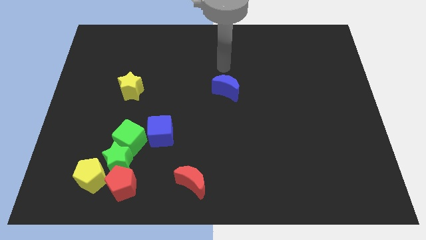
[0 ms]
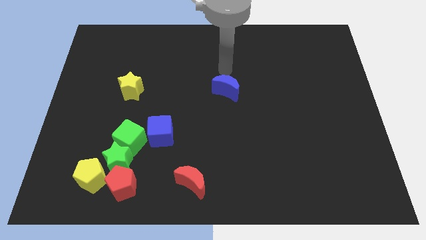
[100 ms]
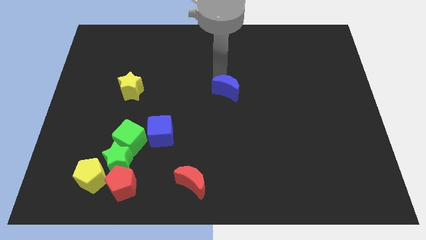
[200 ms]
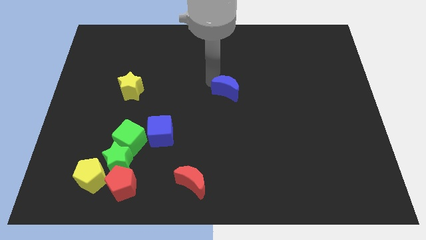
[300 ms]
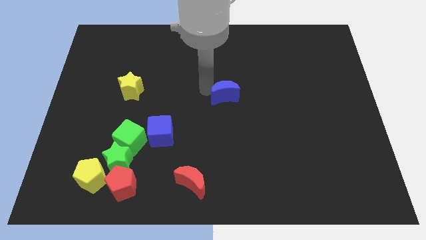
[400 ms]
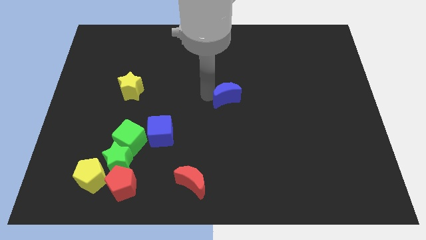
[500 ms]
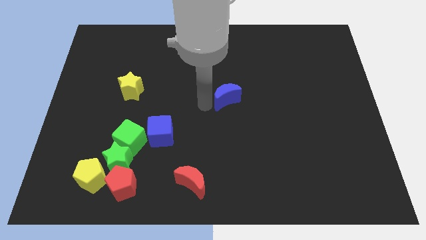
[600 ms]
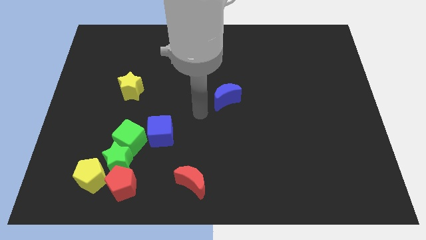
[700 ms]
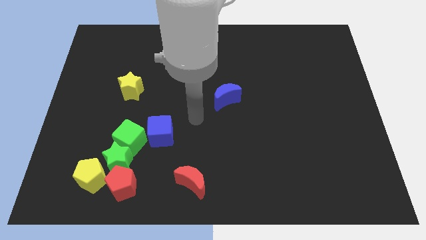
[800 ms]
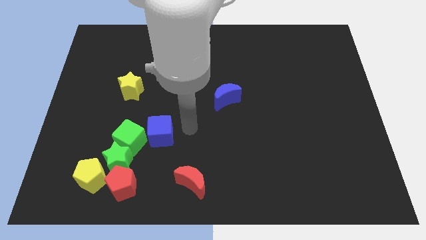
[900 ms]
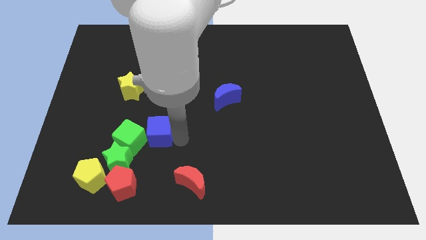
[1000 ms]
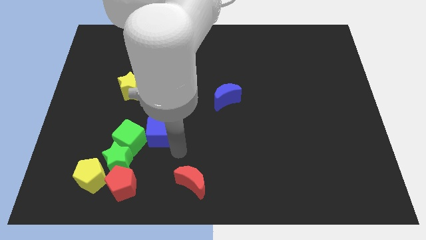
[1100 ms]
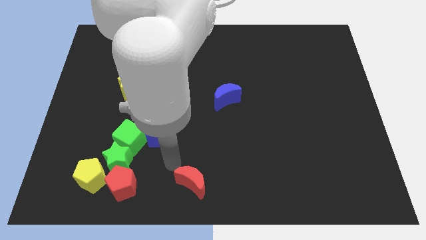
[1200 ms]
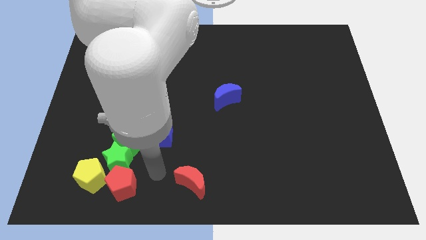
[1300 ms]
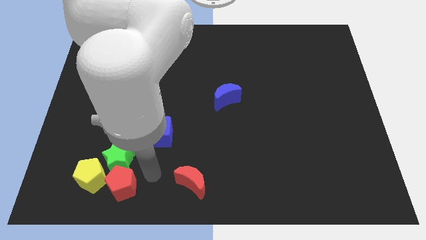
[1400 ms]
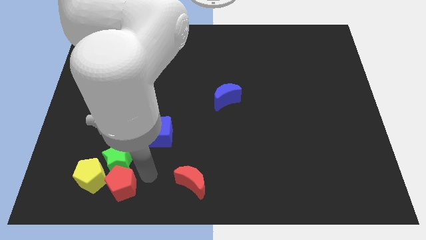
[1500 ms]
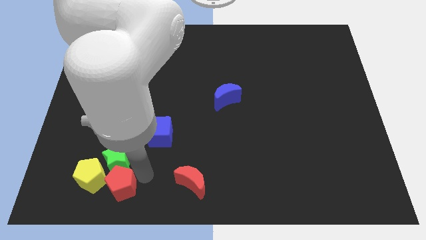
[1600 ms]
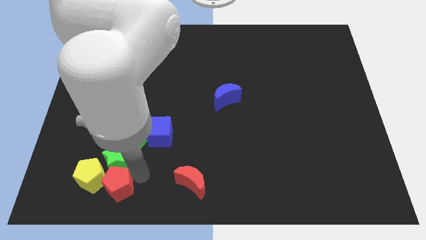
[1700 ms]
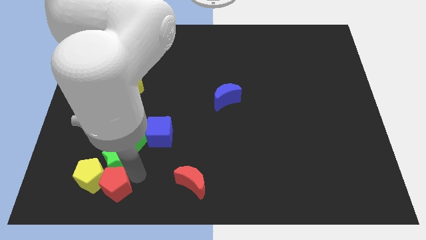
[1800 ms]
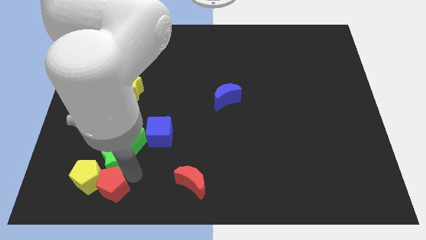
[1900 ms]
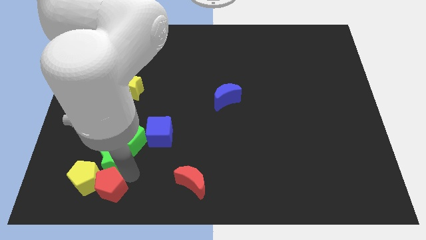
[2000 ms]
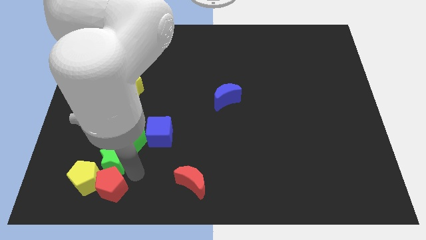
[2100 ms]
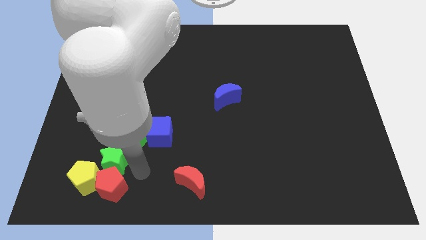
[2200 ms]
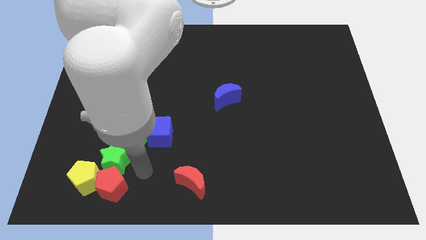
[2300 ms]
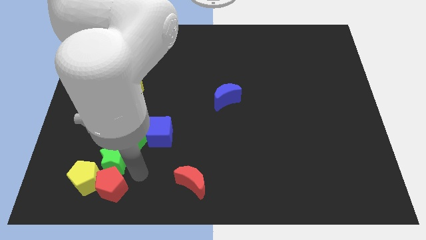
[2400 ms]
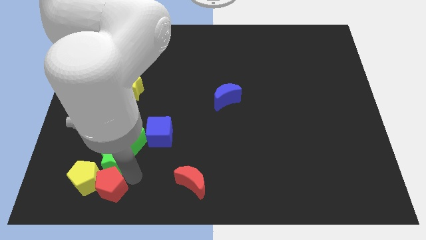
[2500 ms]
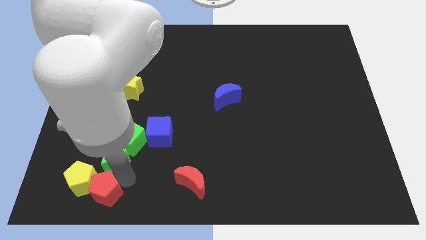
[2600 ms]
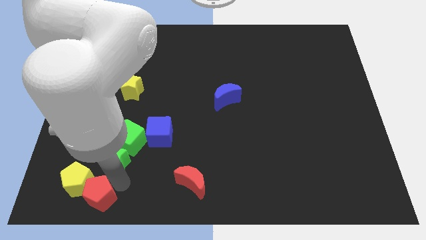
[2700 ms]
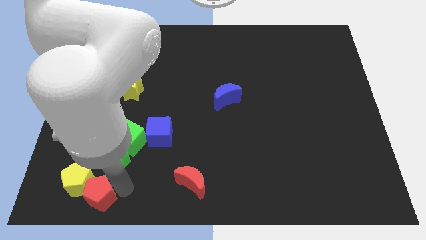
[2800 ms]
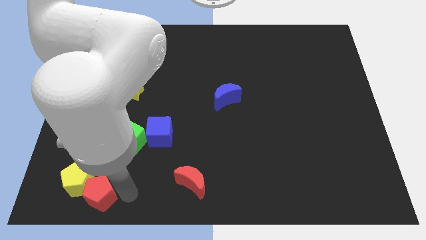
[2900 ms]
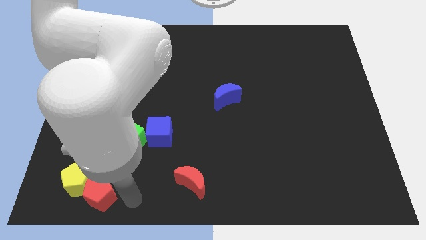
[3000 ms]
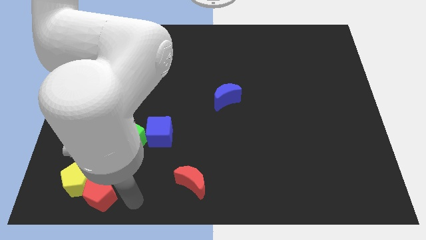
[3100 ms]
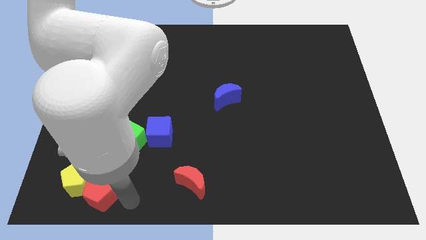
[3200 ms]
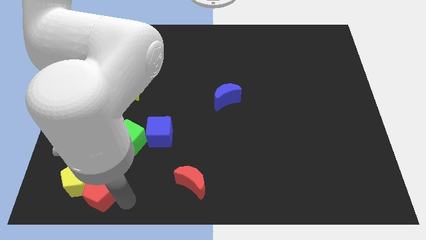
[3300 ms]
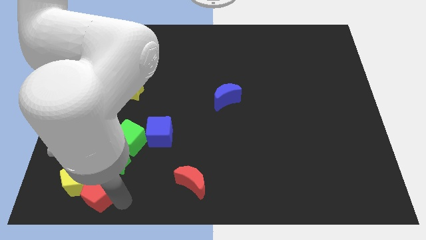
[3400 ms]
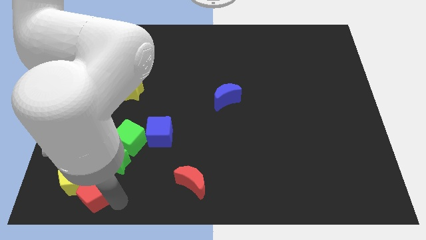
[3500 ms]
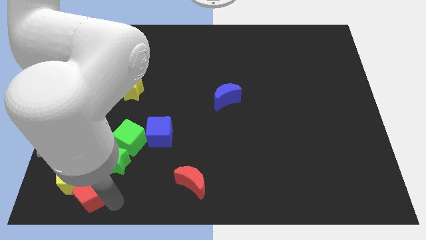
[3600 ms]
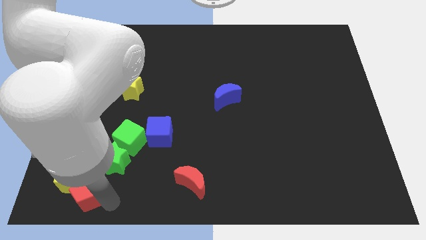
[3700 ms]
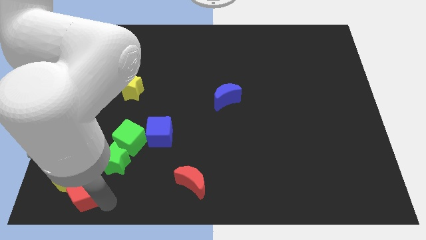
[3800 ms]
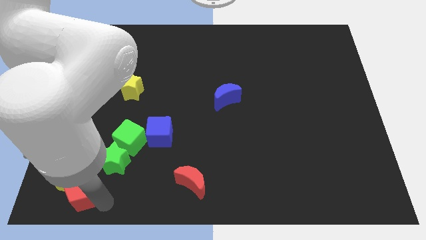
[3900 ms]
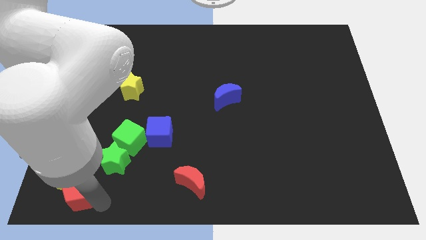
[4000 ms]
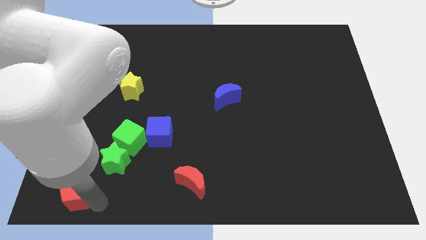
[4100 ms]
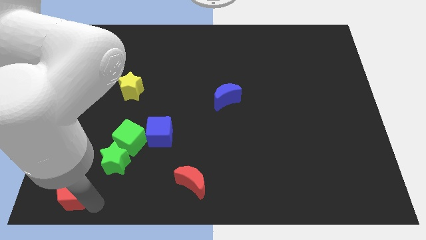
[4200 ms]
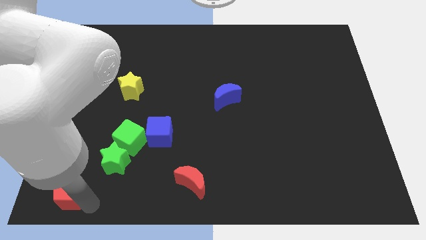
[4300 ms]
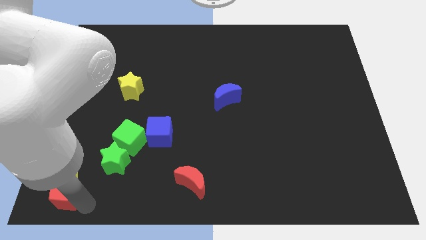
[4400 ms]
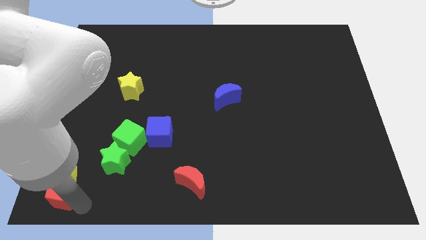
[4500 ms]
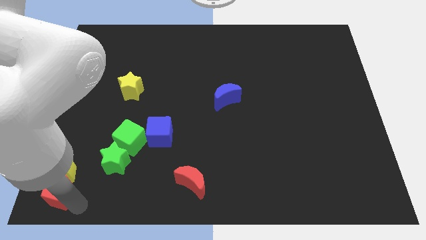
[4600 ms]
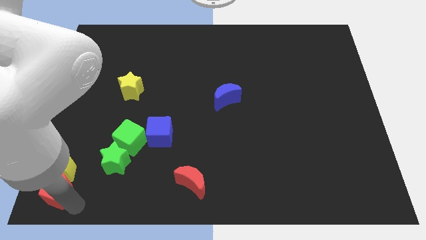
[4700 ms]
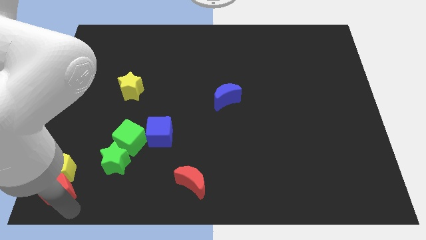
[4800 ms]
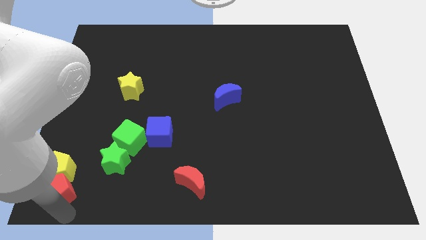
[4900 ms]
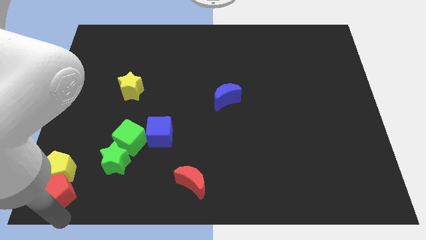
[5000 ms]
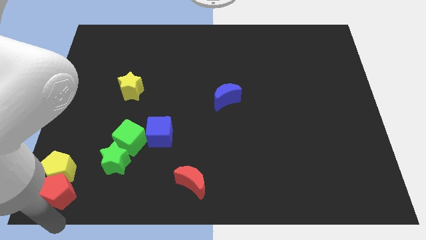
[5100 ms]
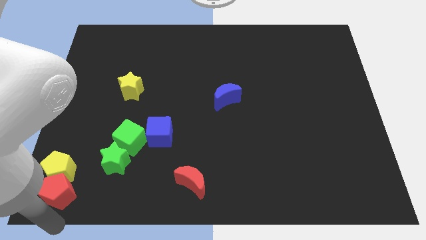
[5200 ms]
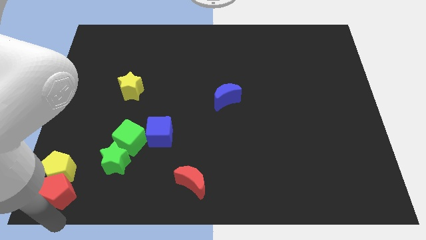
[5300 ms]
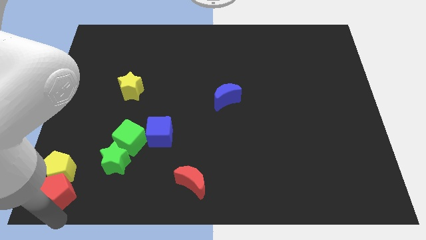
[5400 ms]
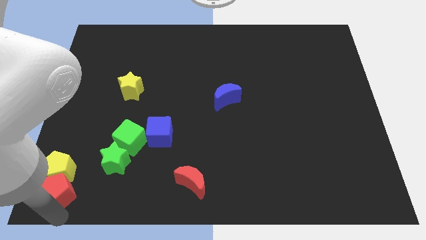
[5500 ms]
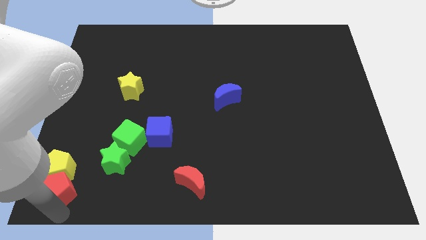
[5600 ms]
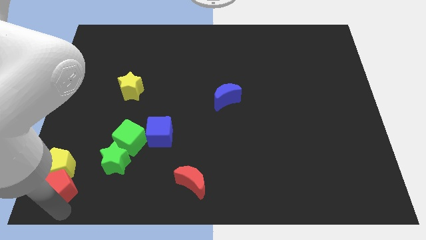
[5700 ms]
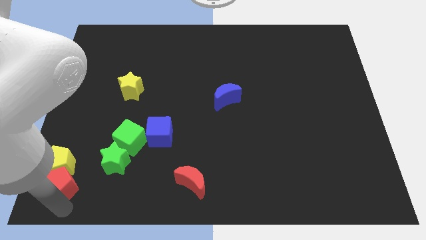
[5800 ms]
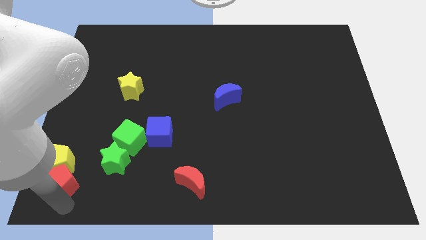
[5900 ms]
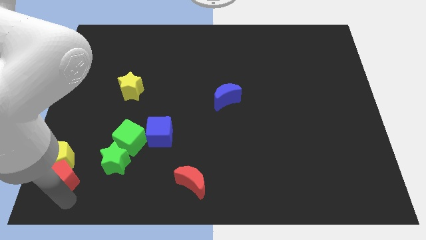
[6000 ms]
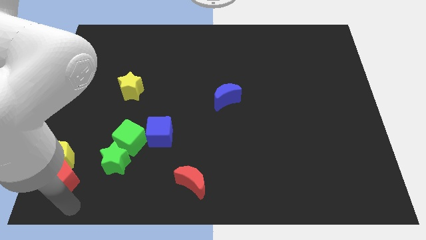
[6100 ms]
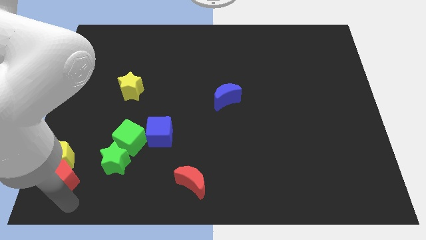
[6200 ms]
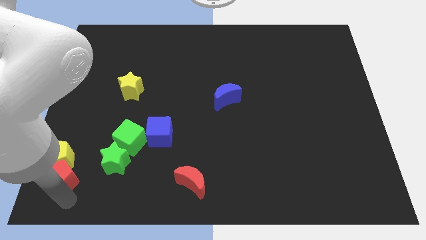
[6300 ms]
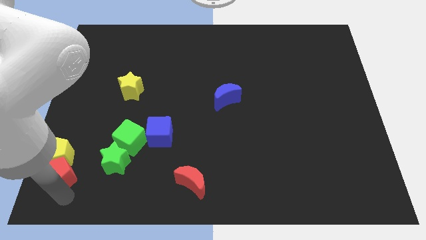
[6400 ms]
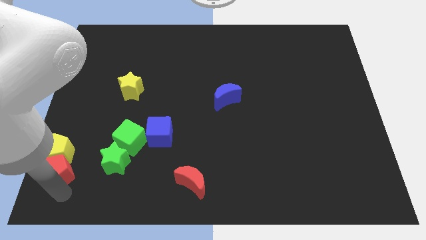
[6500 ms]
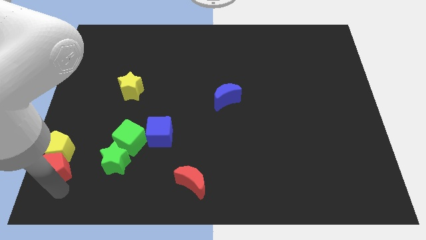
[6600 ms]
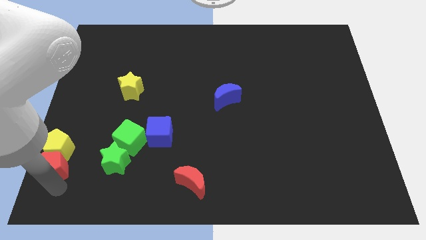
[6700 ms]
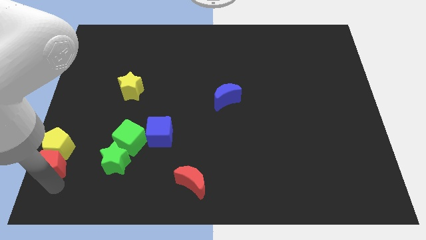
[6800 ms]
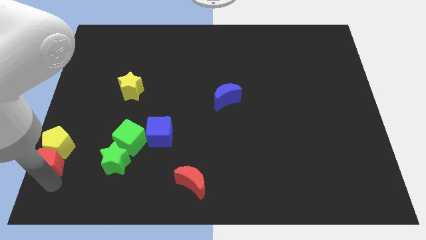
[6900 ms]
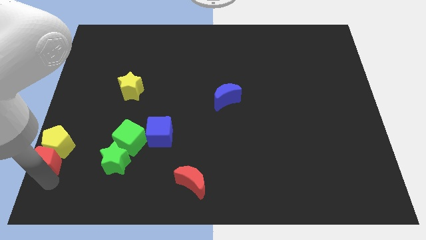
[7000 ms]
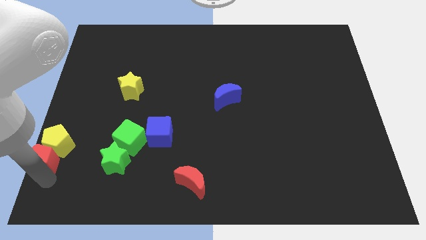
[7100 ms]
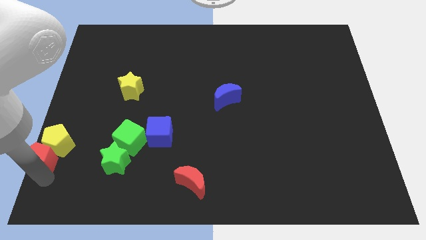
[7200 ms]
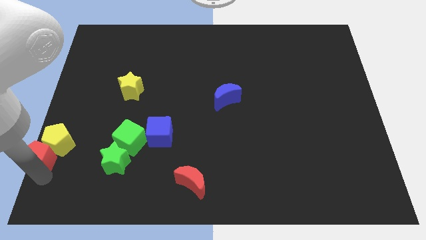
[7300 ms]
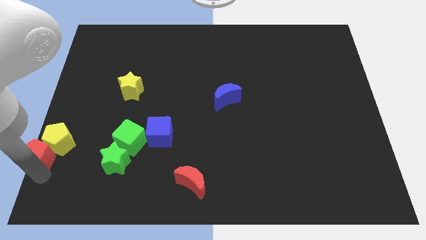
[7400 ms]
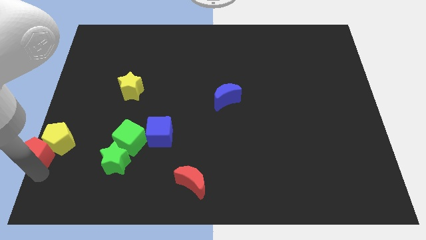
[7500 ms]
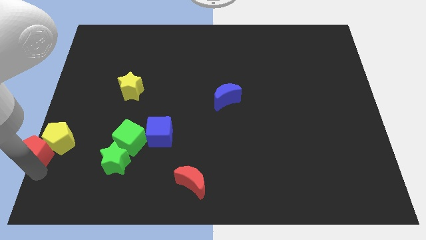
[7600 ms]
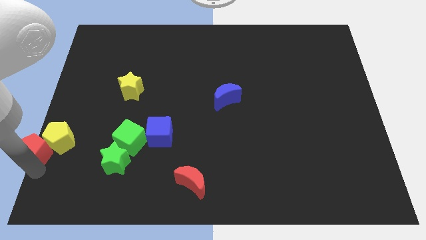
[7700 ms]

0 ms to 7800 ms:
put the red pentagon to the left side
